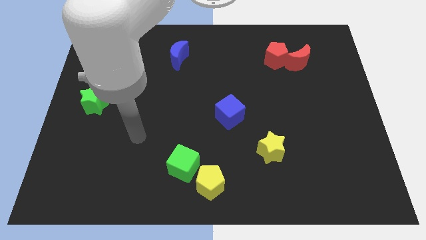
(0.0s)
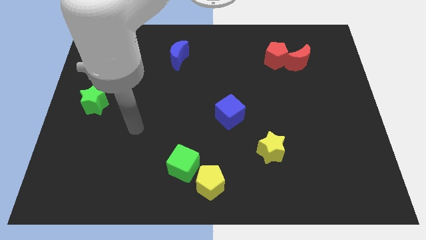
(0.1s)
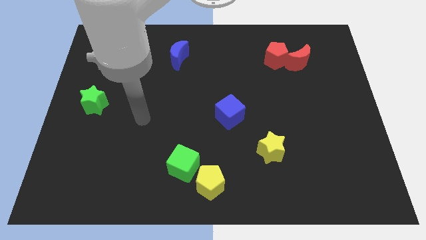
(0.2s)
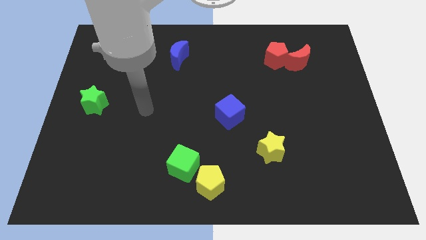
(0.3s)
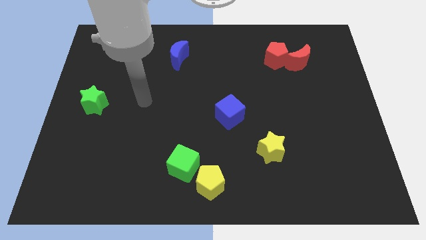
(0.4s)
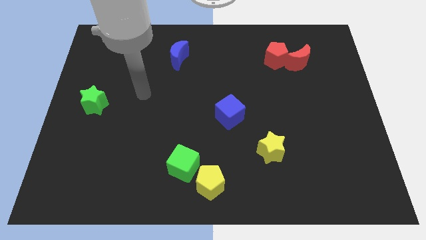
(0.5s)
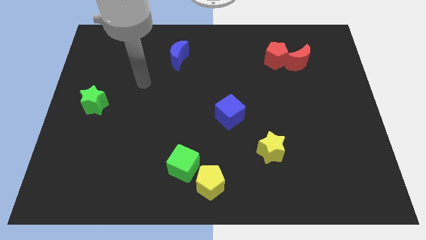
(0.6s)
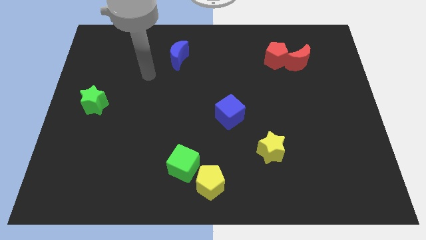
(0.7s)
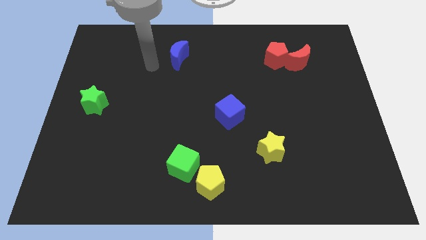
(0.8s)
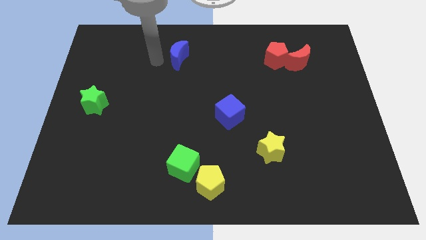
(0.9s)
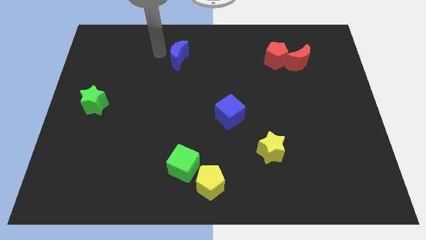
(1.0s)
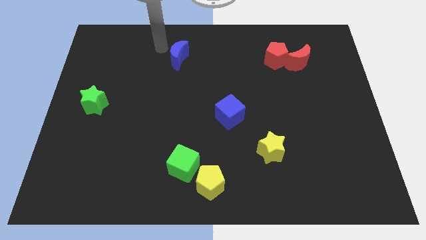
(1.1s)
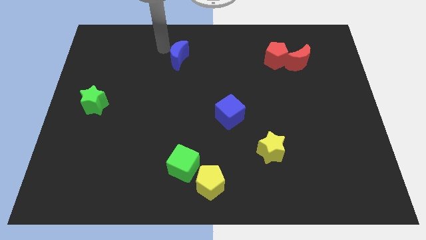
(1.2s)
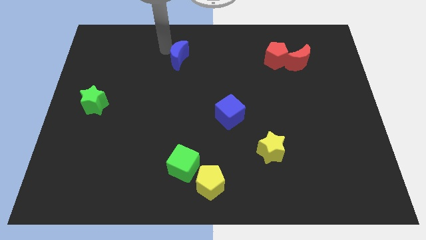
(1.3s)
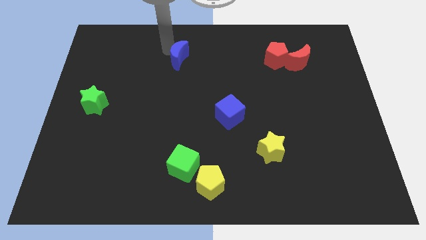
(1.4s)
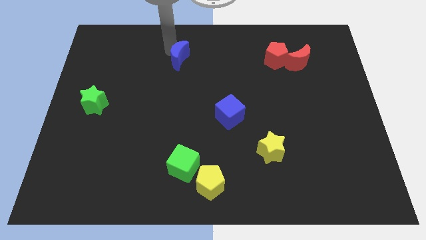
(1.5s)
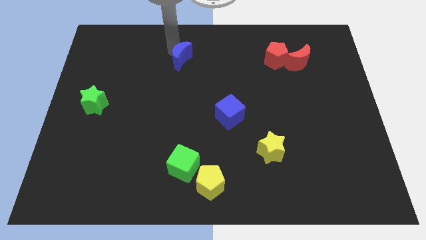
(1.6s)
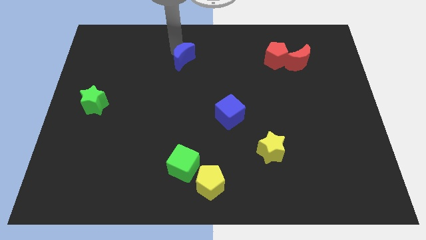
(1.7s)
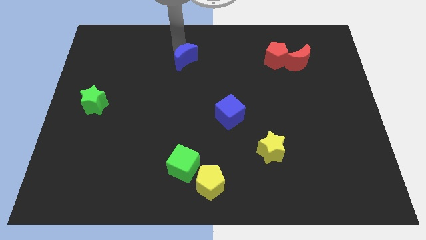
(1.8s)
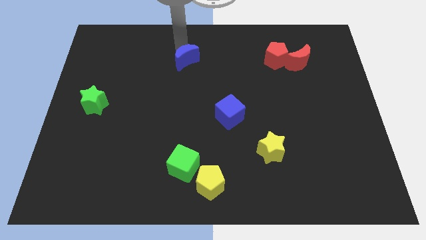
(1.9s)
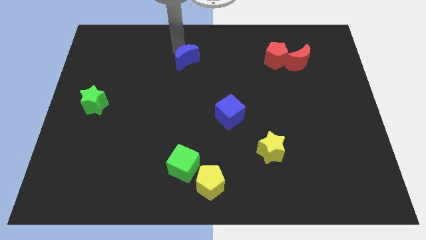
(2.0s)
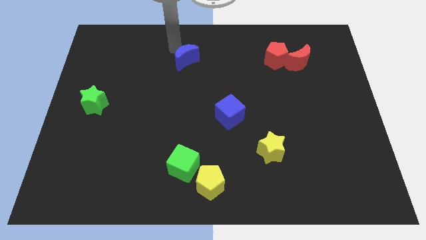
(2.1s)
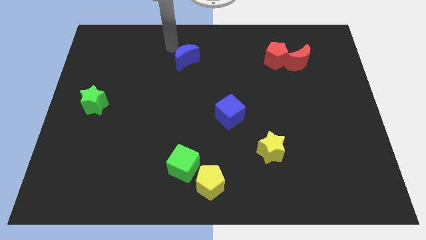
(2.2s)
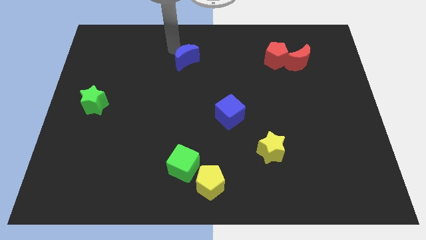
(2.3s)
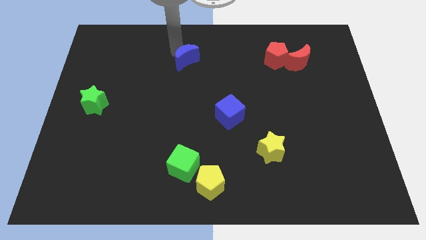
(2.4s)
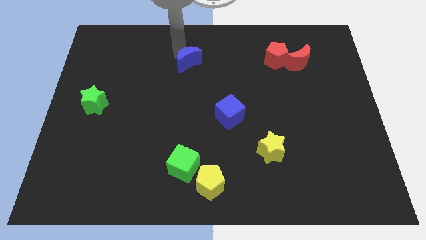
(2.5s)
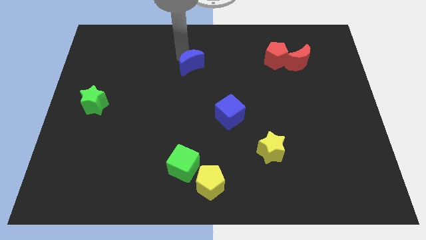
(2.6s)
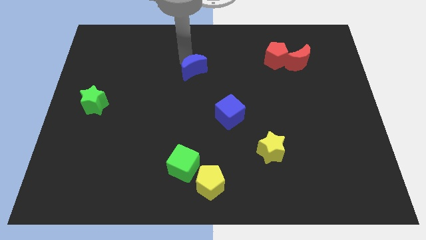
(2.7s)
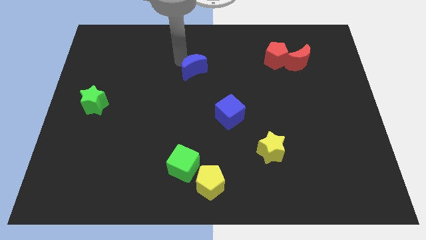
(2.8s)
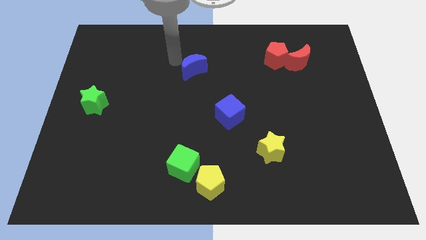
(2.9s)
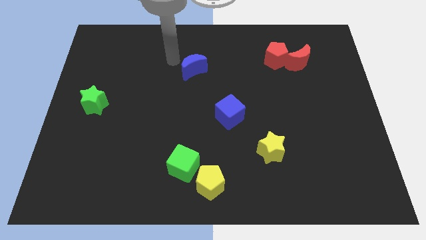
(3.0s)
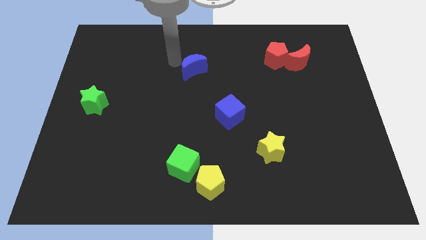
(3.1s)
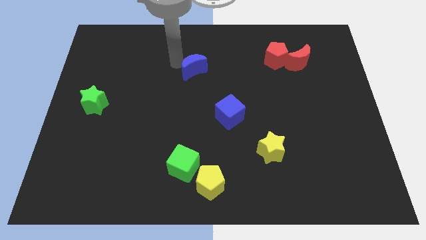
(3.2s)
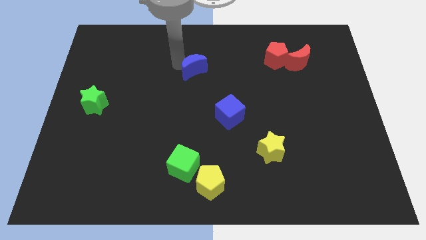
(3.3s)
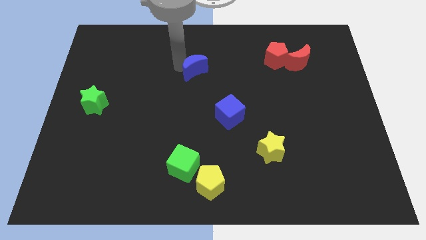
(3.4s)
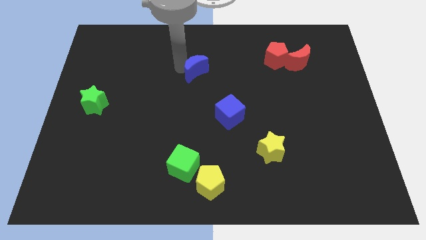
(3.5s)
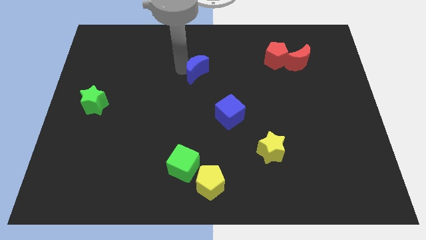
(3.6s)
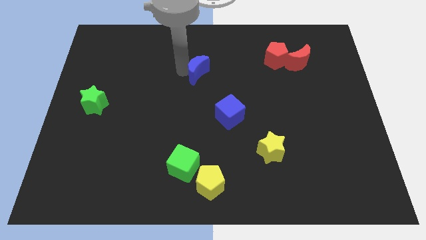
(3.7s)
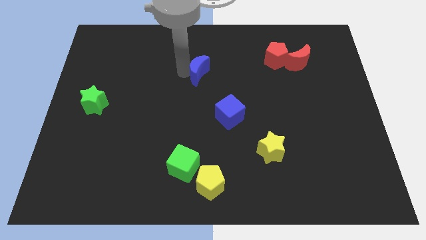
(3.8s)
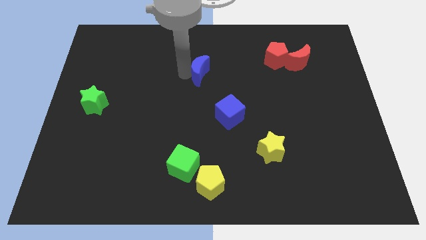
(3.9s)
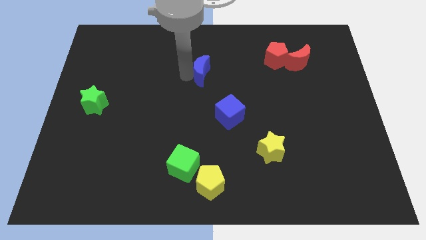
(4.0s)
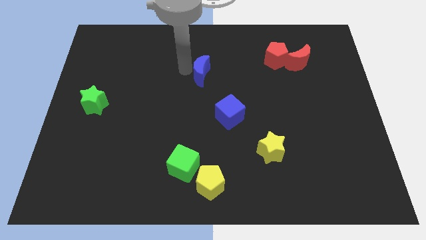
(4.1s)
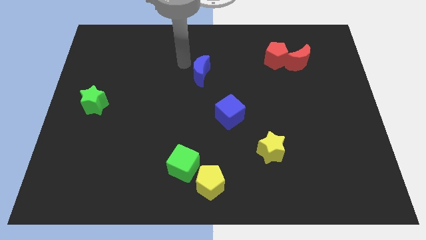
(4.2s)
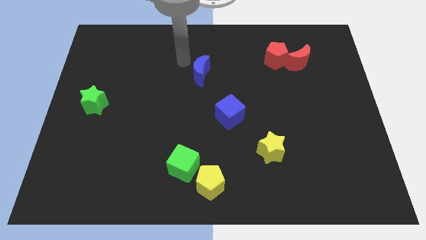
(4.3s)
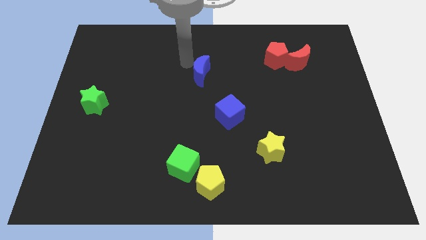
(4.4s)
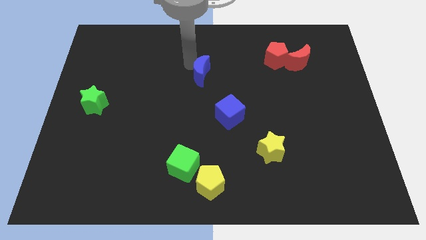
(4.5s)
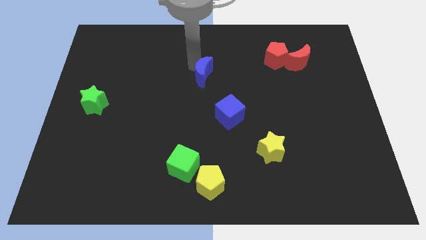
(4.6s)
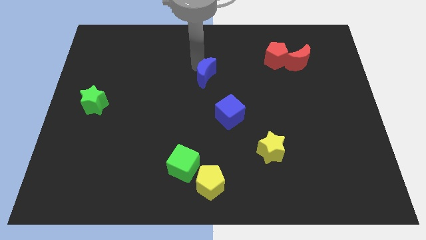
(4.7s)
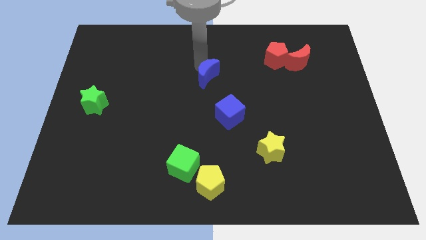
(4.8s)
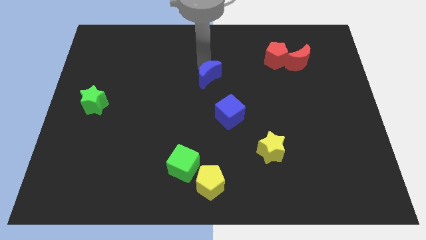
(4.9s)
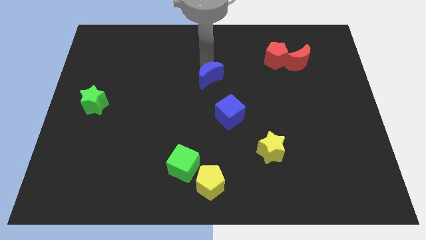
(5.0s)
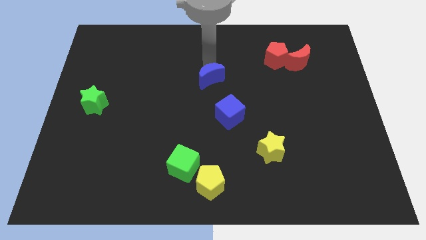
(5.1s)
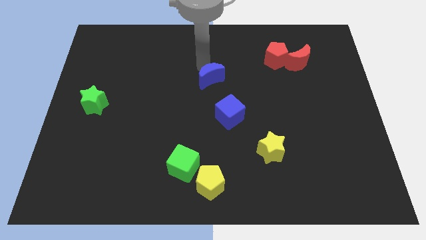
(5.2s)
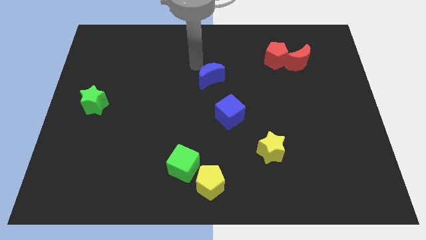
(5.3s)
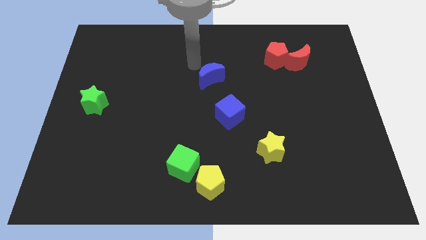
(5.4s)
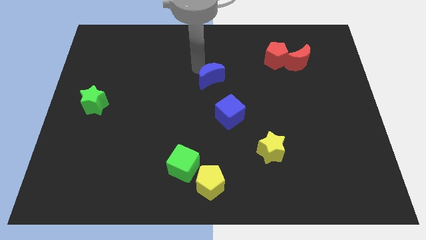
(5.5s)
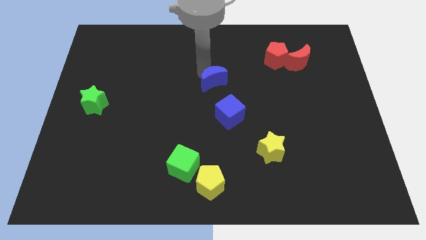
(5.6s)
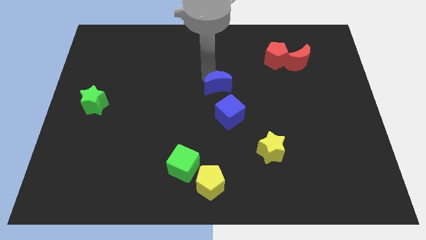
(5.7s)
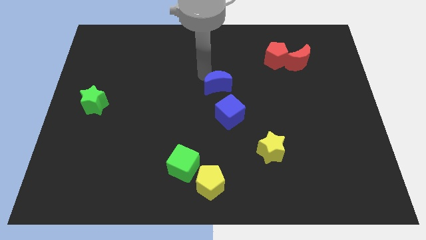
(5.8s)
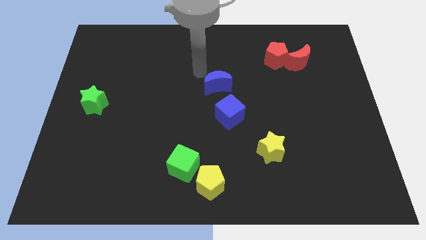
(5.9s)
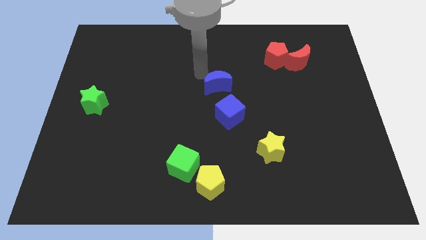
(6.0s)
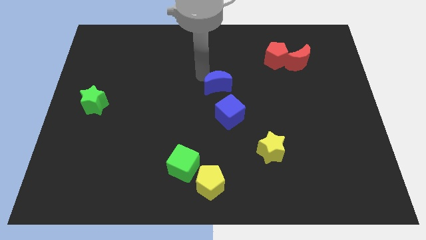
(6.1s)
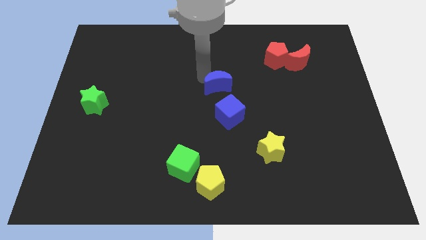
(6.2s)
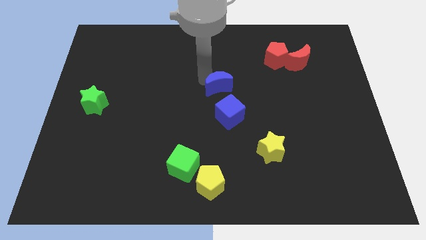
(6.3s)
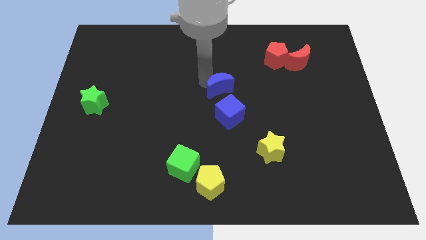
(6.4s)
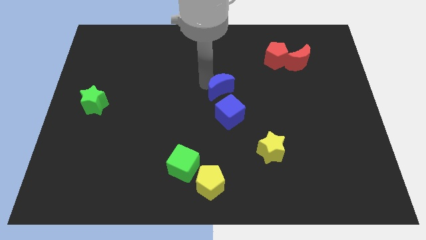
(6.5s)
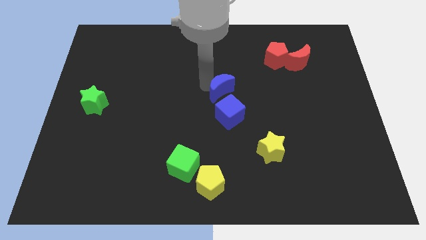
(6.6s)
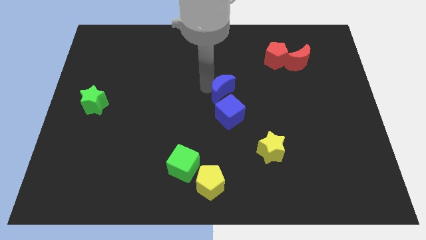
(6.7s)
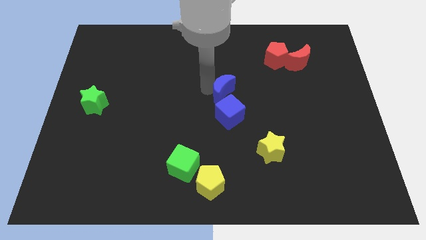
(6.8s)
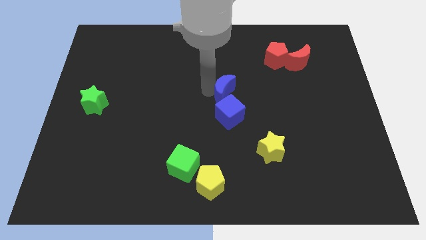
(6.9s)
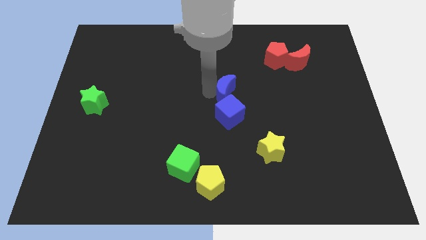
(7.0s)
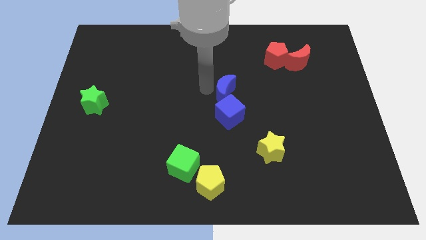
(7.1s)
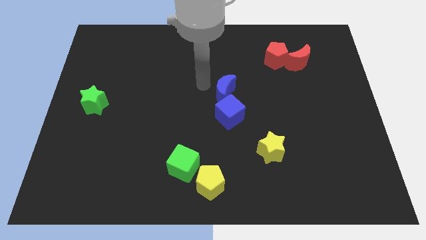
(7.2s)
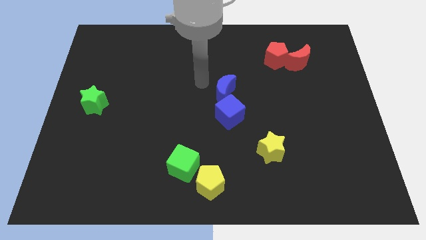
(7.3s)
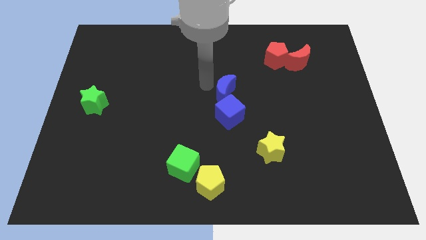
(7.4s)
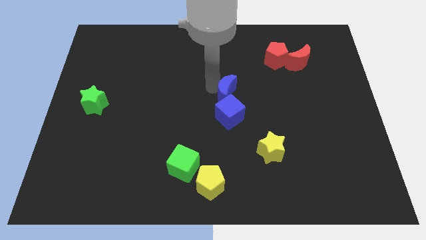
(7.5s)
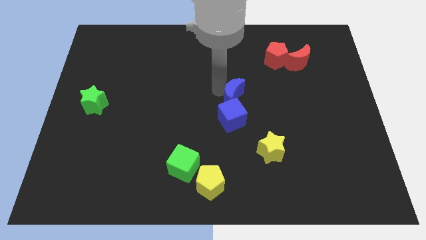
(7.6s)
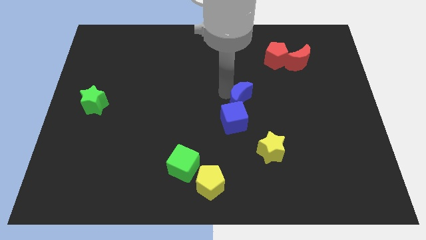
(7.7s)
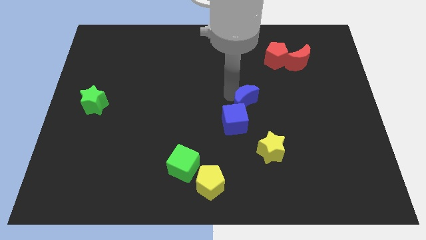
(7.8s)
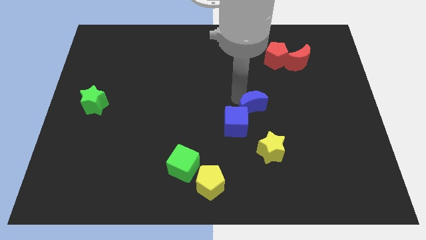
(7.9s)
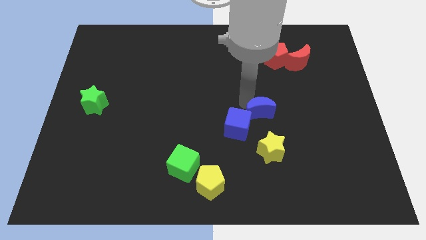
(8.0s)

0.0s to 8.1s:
move the blue moon to the right side of the blue cube
